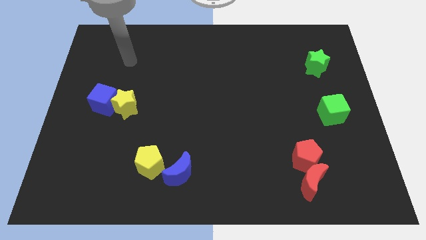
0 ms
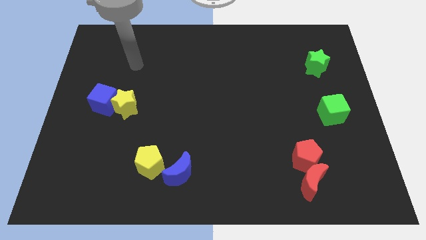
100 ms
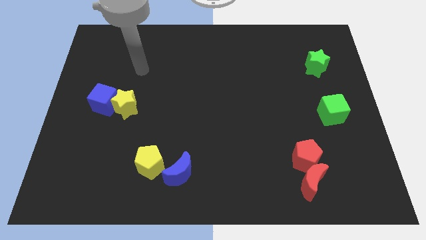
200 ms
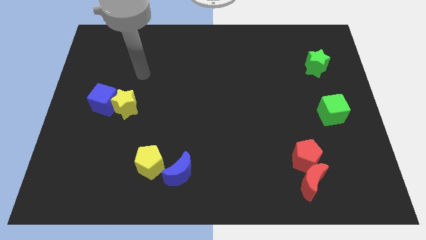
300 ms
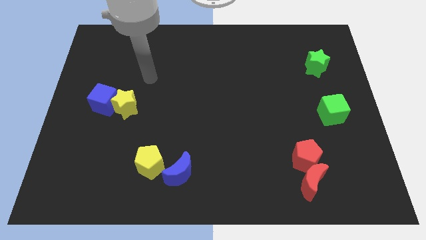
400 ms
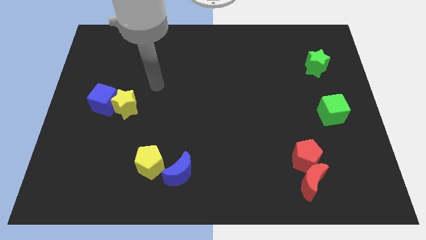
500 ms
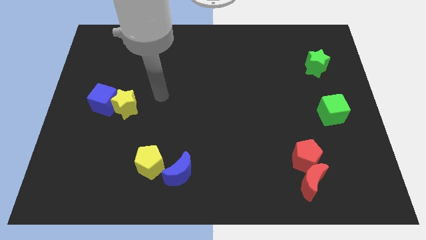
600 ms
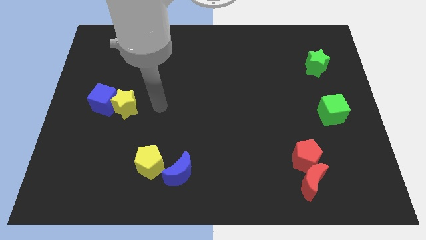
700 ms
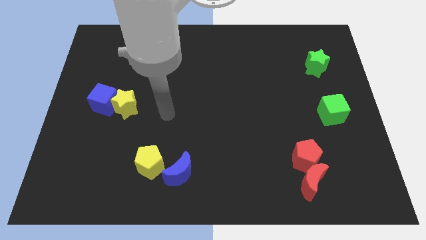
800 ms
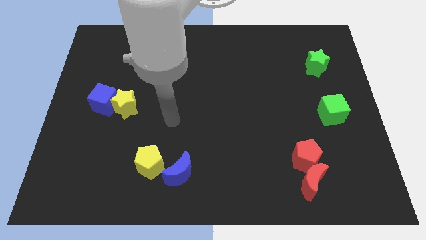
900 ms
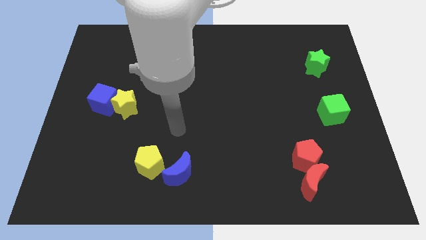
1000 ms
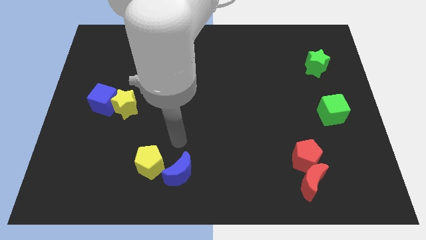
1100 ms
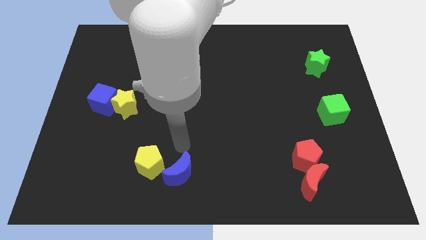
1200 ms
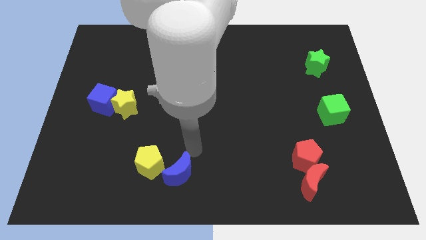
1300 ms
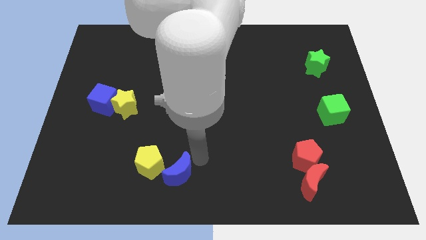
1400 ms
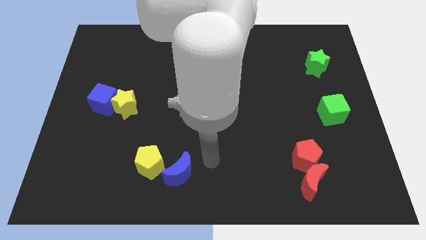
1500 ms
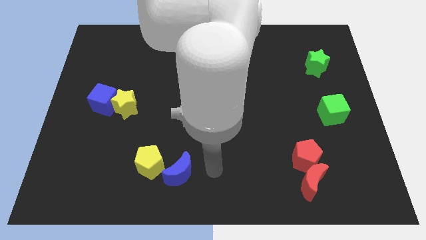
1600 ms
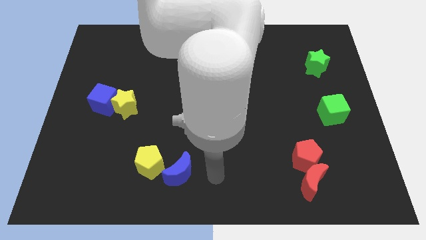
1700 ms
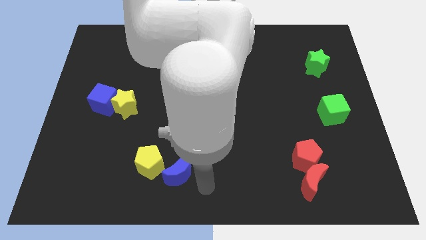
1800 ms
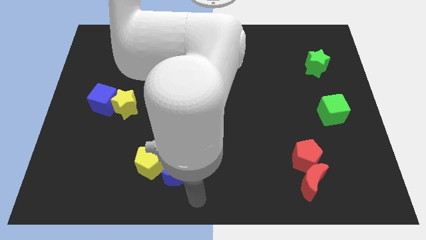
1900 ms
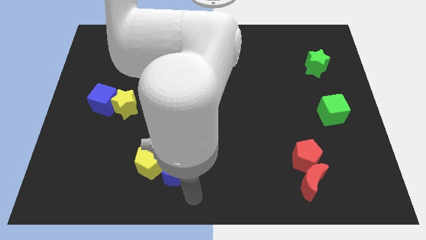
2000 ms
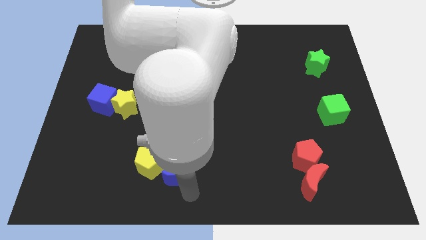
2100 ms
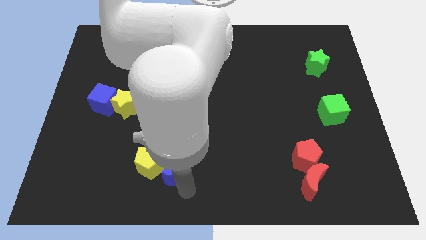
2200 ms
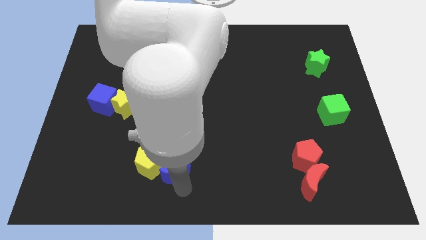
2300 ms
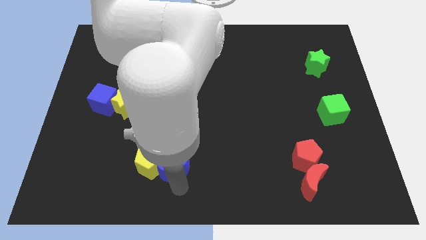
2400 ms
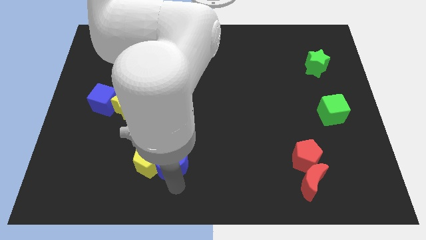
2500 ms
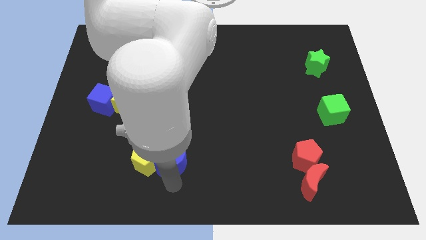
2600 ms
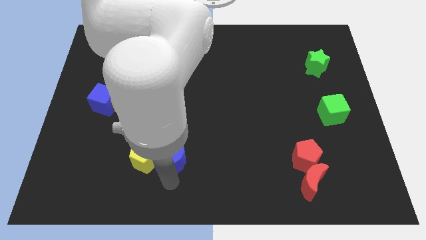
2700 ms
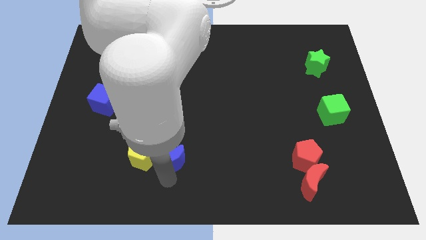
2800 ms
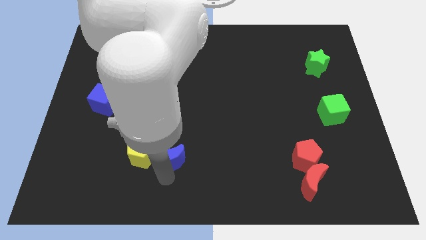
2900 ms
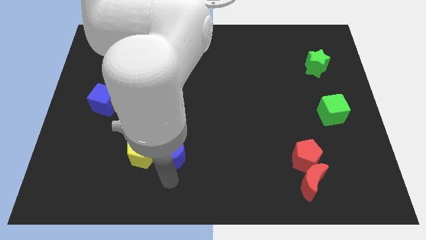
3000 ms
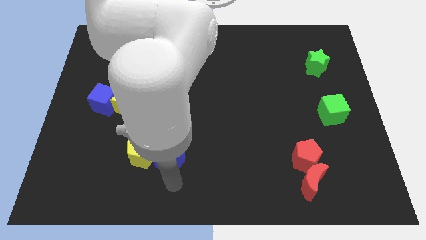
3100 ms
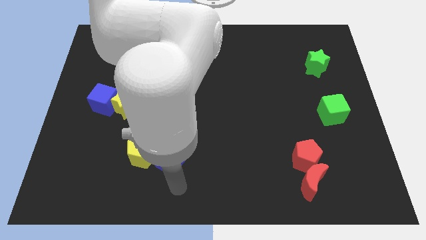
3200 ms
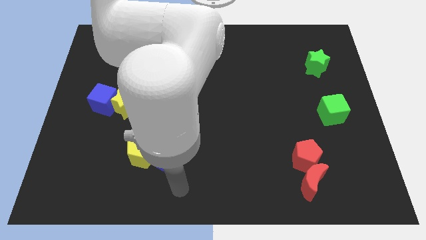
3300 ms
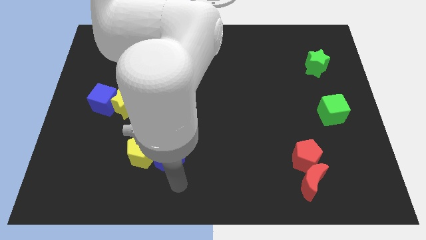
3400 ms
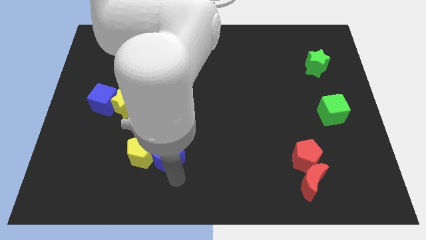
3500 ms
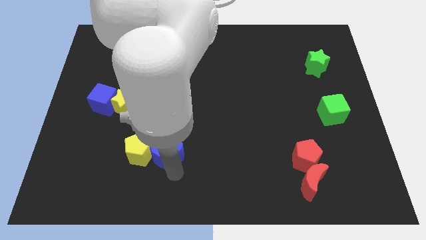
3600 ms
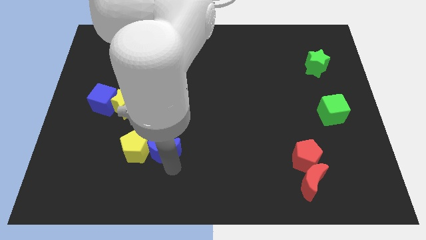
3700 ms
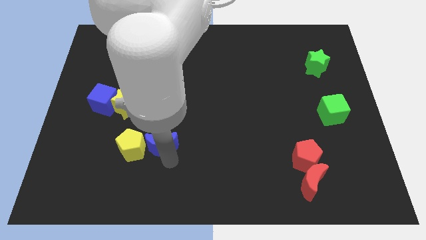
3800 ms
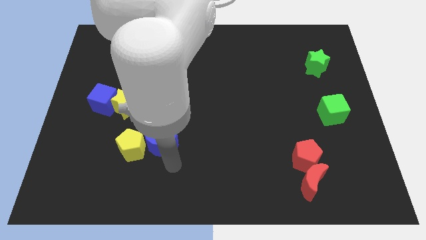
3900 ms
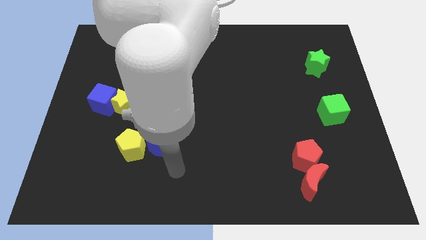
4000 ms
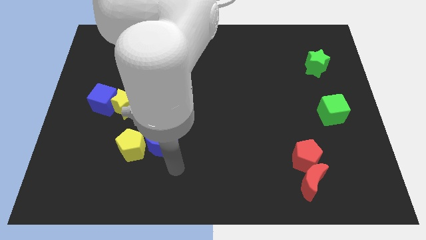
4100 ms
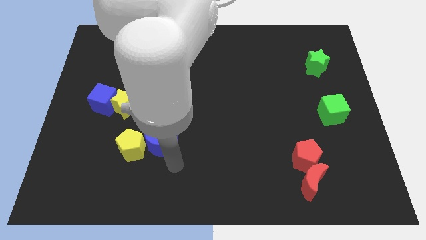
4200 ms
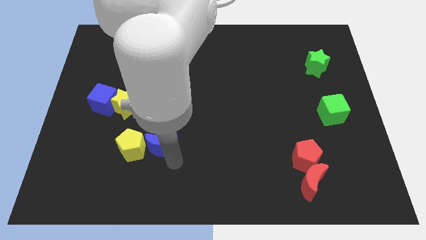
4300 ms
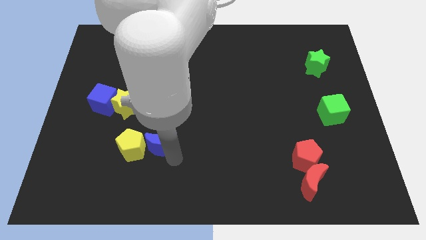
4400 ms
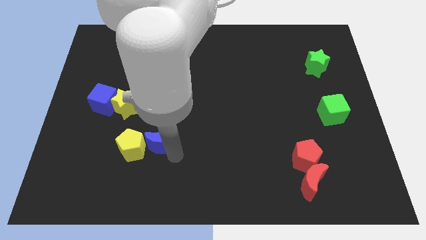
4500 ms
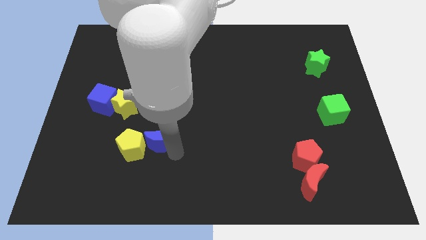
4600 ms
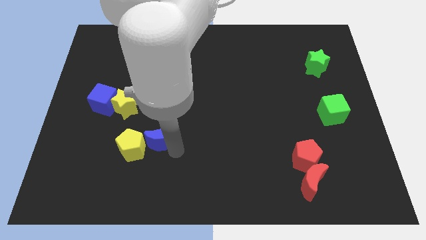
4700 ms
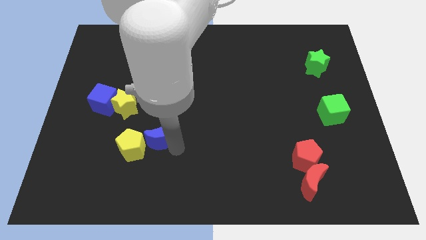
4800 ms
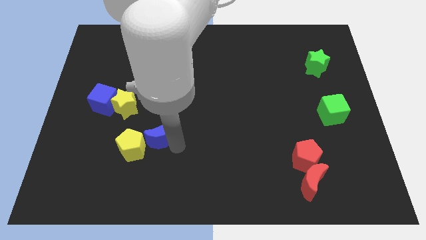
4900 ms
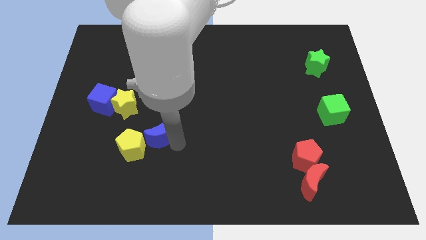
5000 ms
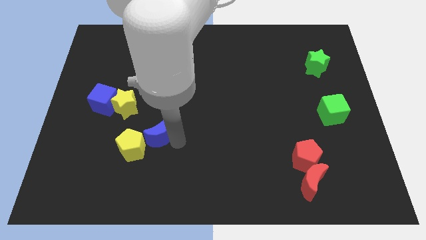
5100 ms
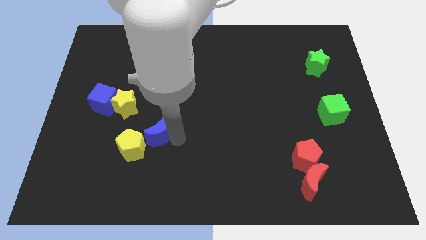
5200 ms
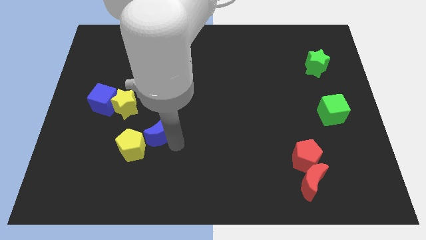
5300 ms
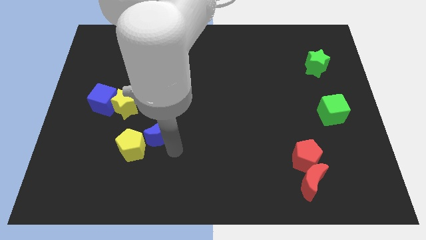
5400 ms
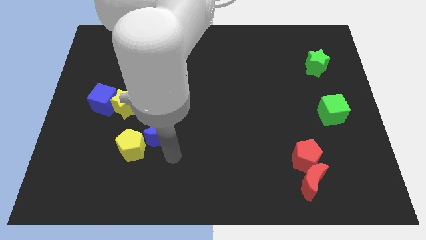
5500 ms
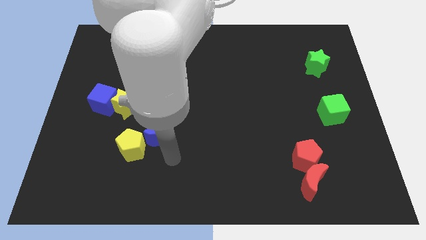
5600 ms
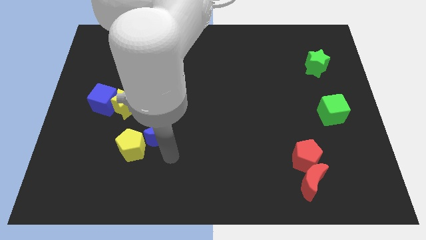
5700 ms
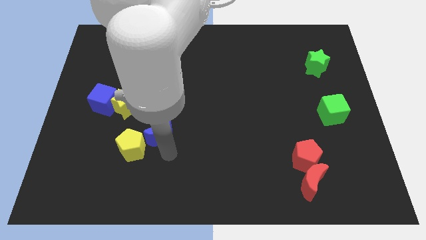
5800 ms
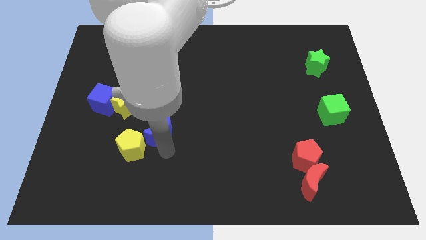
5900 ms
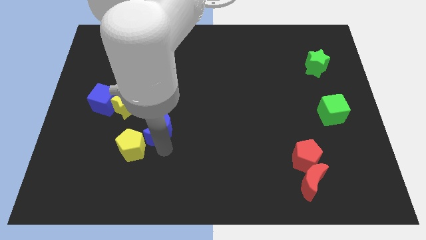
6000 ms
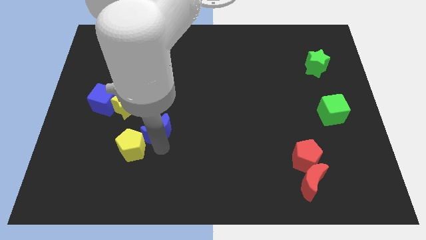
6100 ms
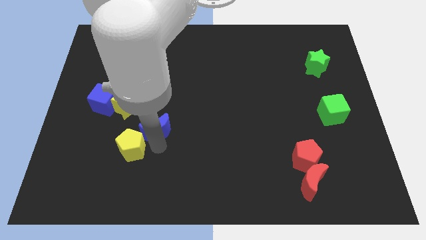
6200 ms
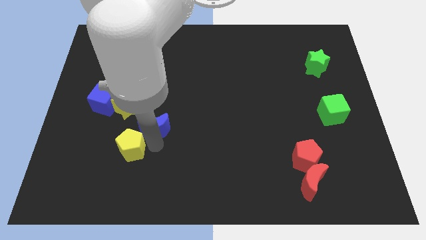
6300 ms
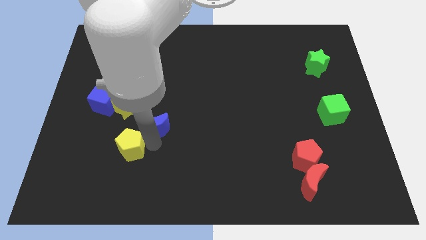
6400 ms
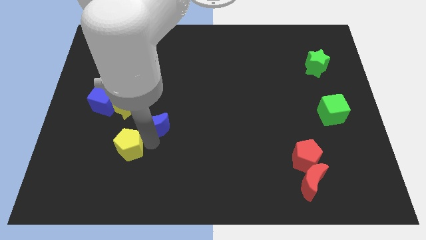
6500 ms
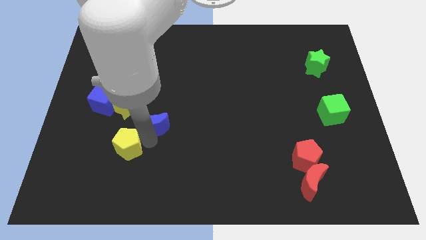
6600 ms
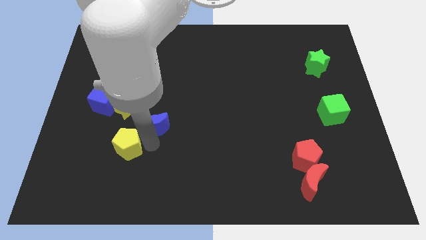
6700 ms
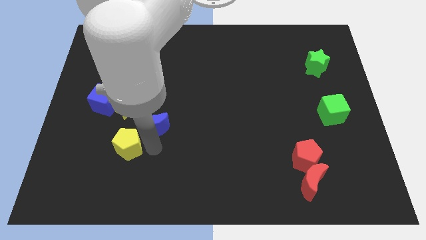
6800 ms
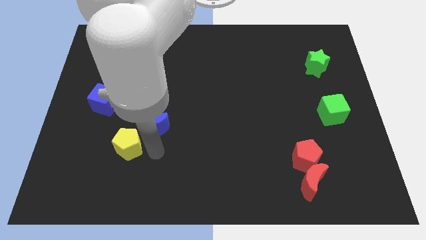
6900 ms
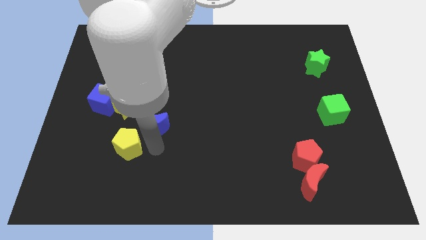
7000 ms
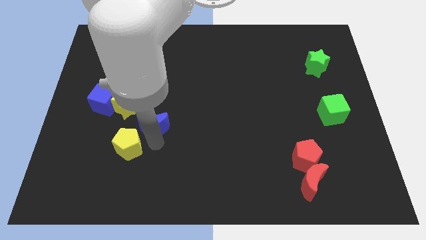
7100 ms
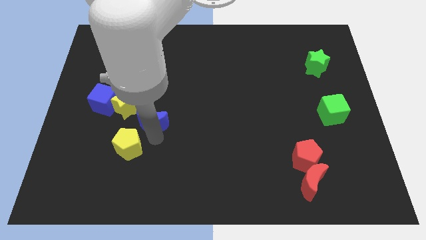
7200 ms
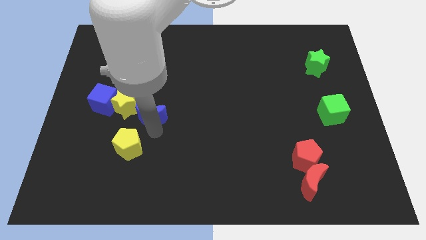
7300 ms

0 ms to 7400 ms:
move the blue moon right of the blue cube
